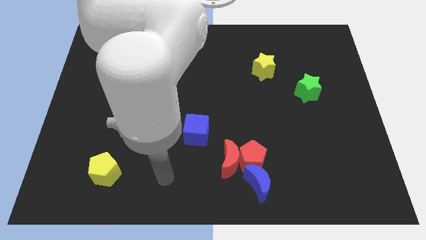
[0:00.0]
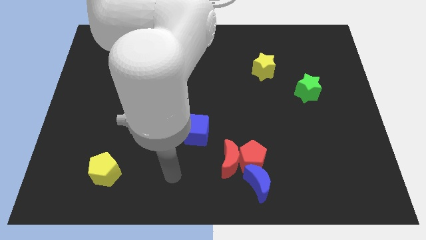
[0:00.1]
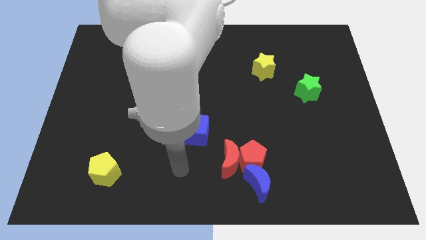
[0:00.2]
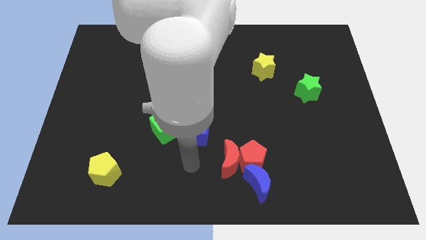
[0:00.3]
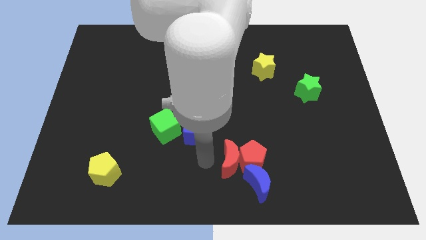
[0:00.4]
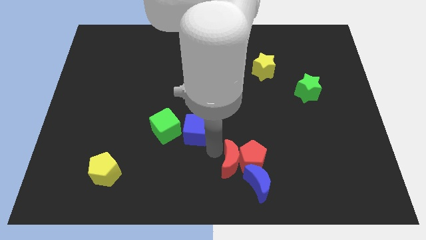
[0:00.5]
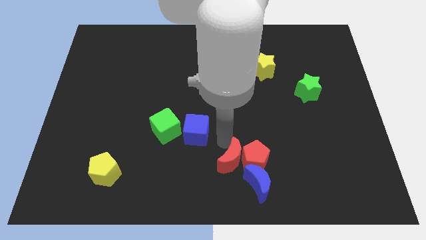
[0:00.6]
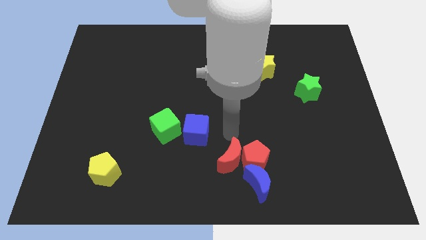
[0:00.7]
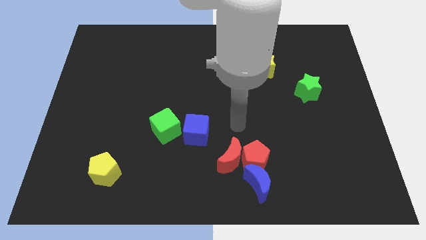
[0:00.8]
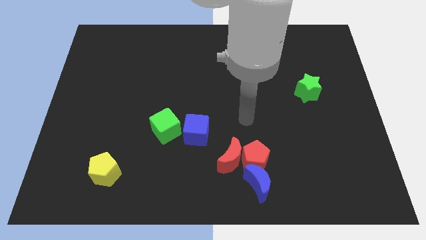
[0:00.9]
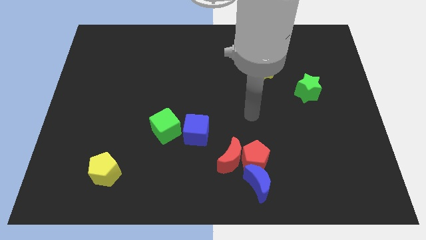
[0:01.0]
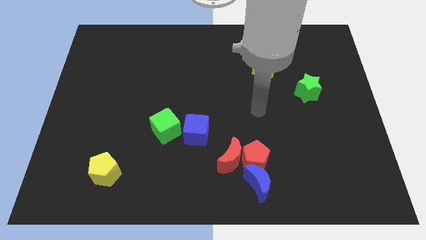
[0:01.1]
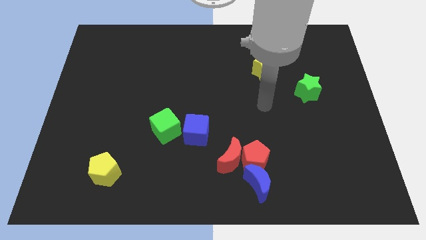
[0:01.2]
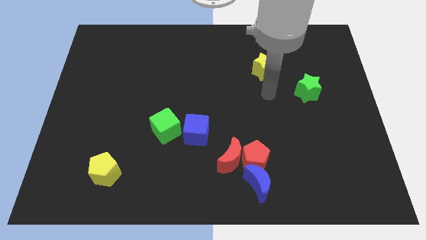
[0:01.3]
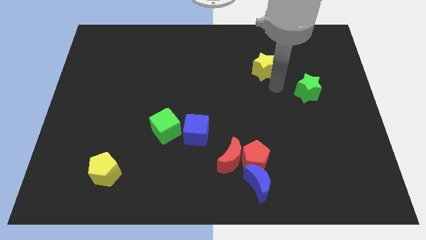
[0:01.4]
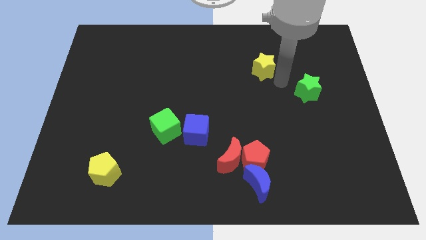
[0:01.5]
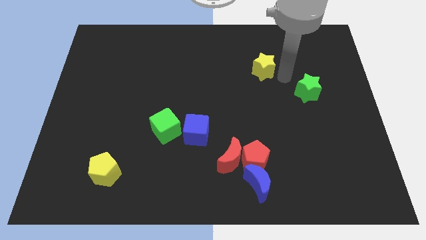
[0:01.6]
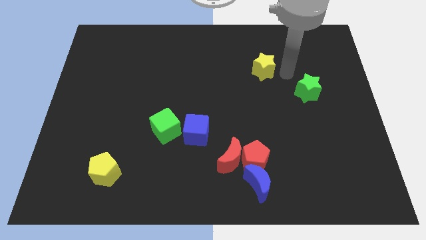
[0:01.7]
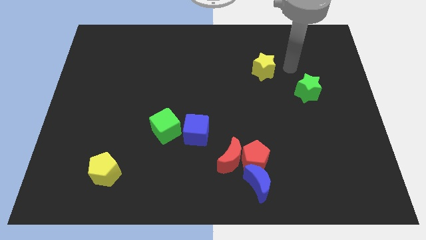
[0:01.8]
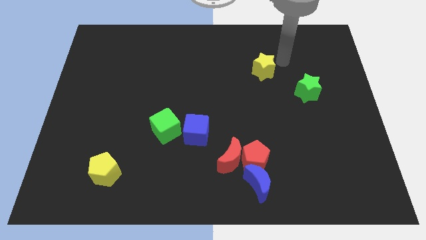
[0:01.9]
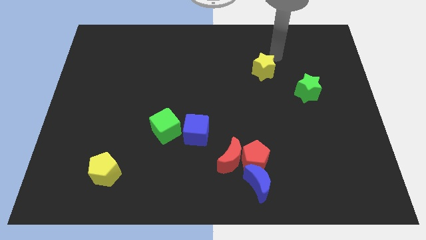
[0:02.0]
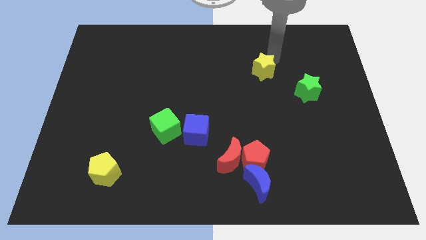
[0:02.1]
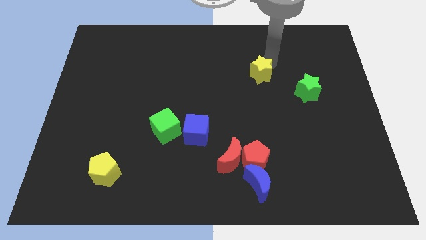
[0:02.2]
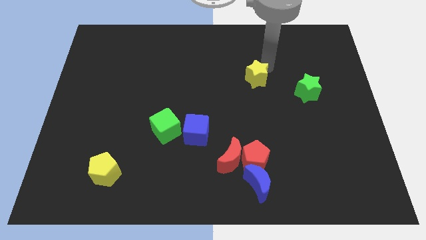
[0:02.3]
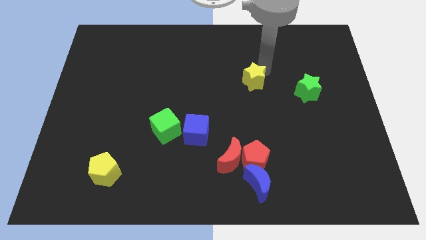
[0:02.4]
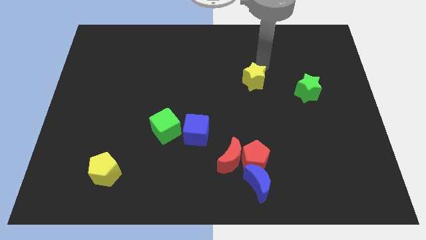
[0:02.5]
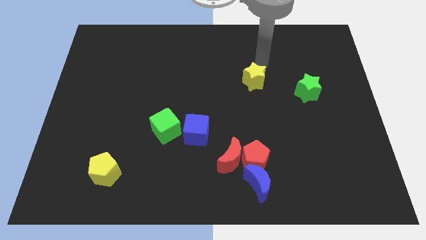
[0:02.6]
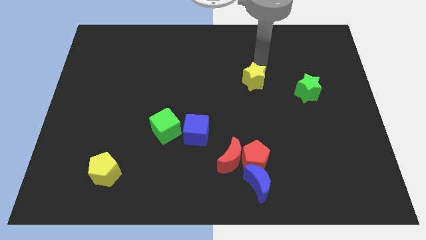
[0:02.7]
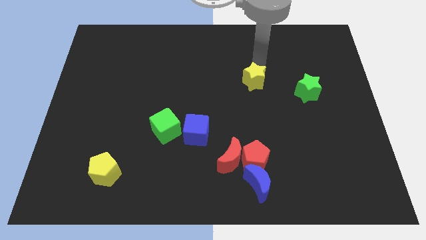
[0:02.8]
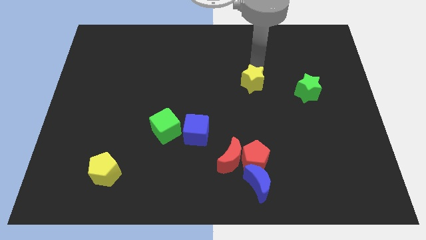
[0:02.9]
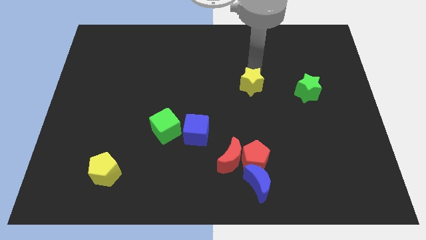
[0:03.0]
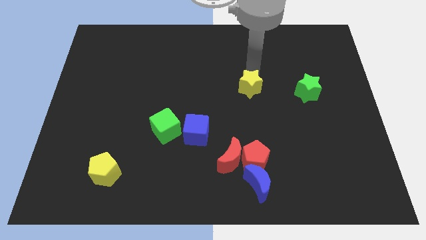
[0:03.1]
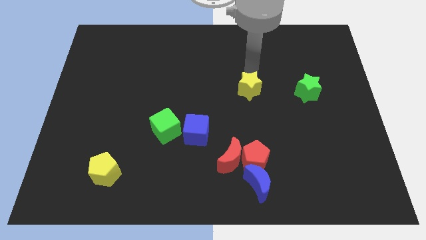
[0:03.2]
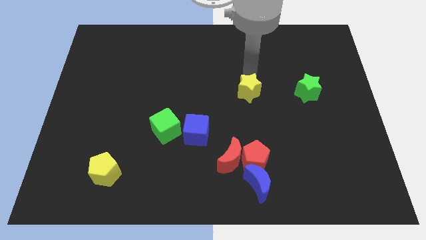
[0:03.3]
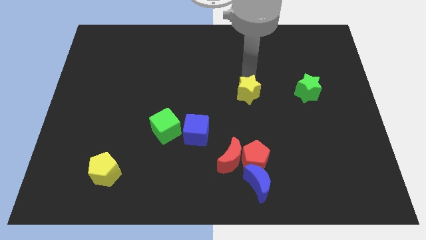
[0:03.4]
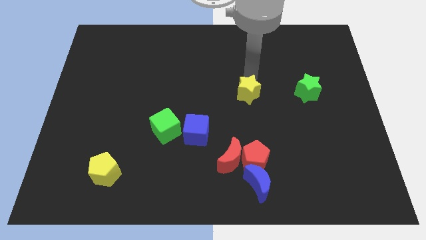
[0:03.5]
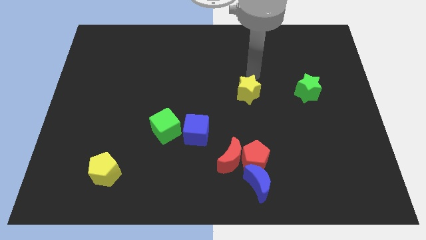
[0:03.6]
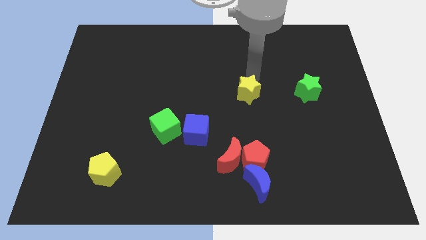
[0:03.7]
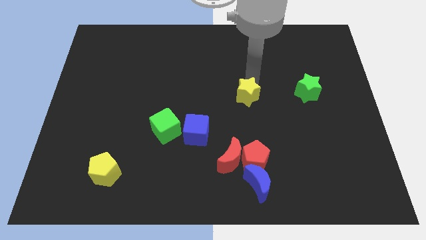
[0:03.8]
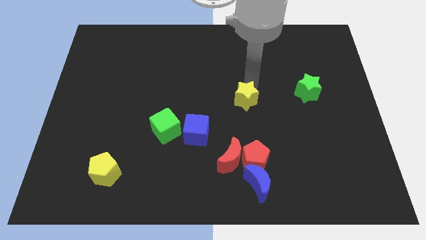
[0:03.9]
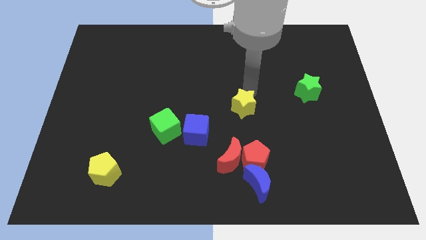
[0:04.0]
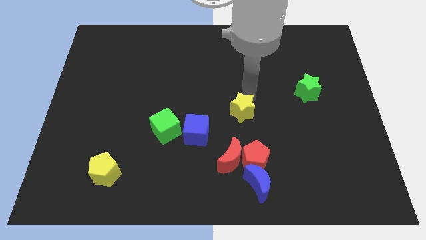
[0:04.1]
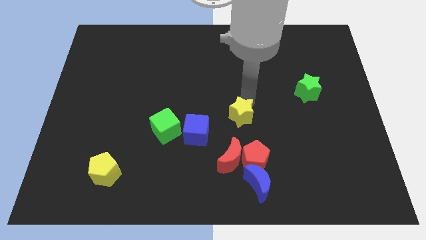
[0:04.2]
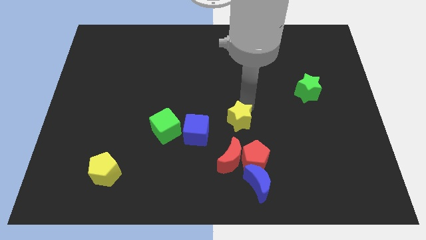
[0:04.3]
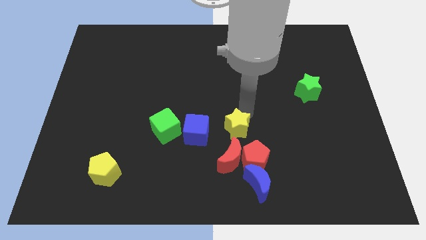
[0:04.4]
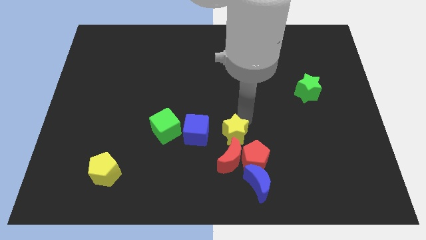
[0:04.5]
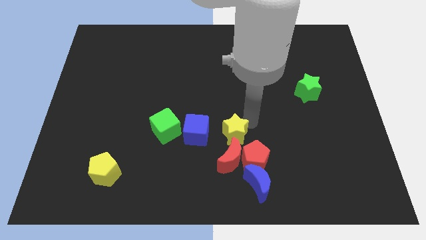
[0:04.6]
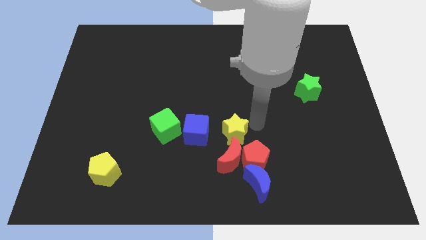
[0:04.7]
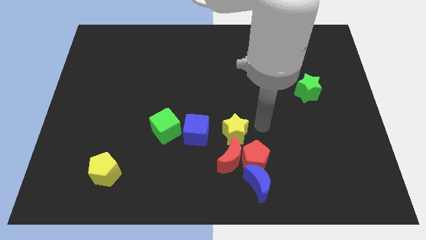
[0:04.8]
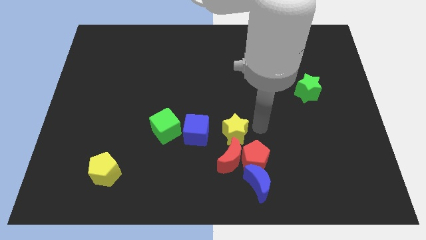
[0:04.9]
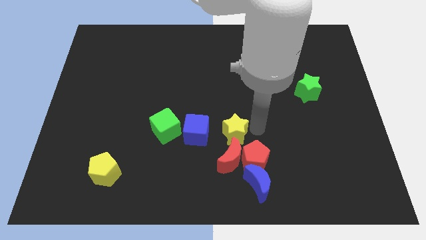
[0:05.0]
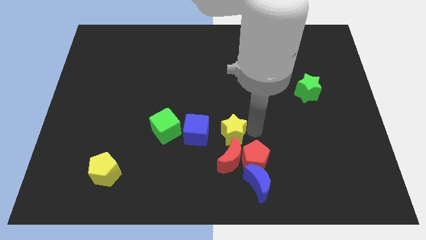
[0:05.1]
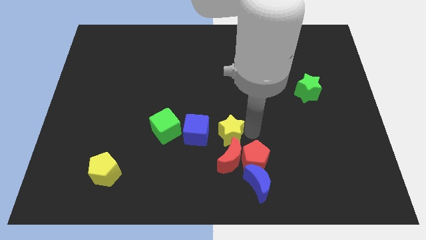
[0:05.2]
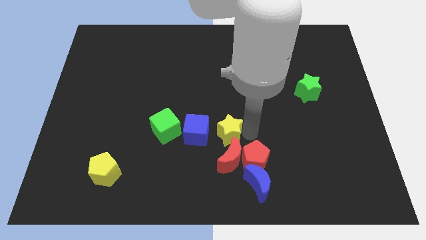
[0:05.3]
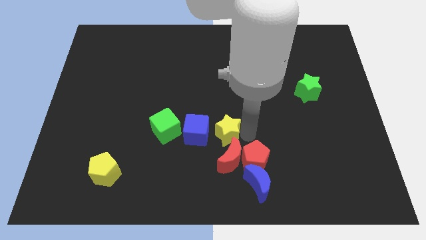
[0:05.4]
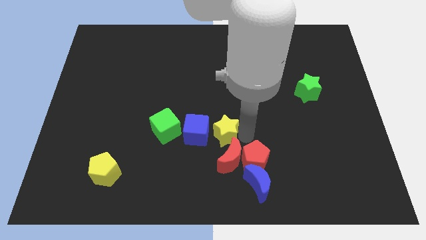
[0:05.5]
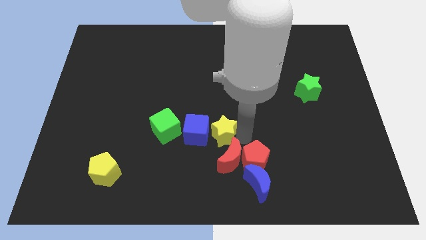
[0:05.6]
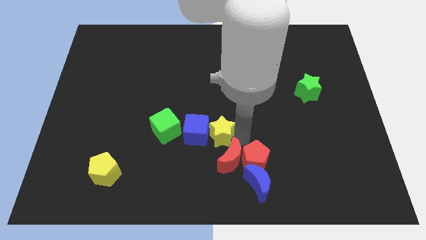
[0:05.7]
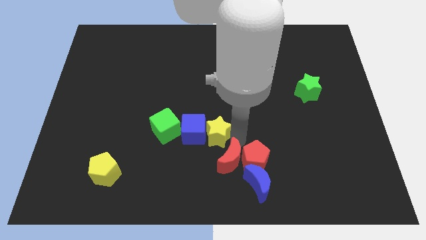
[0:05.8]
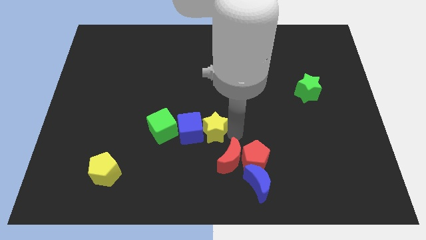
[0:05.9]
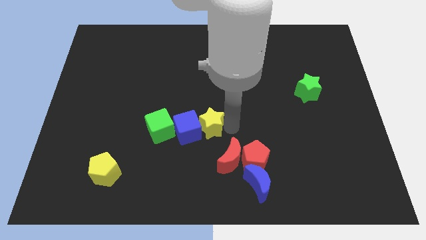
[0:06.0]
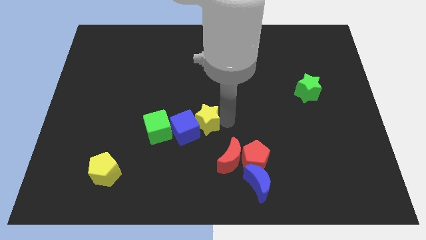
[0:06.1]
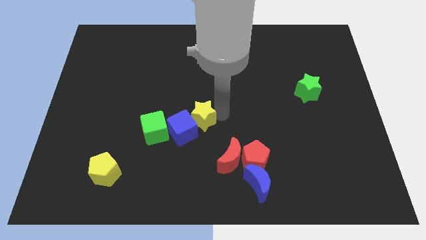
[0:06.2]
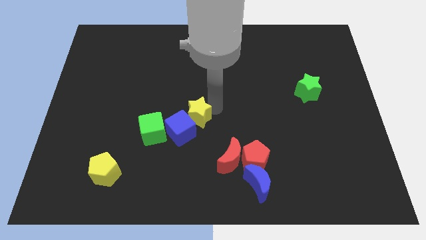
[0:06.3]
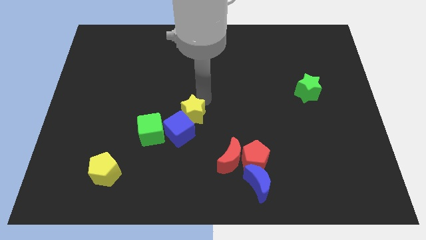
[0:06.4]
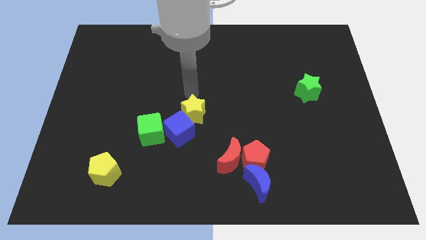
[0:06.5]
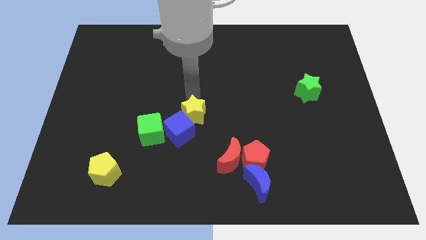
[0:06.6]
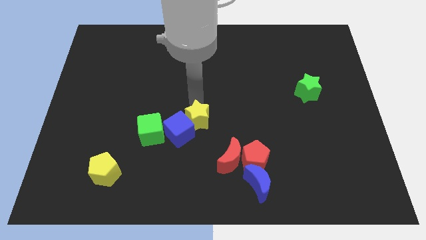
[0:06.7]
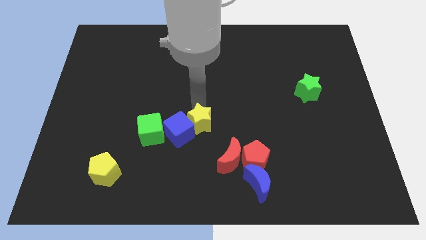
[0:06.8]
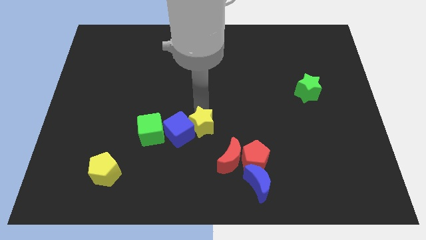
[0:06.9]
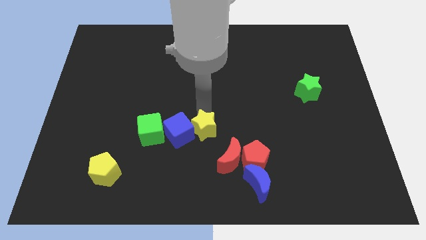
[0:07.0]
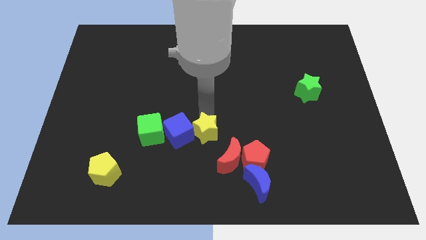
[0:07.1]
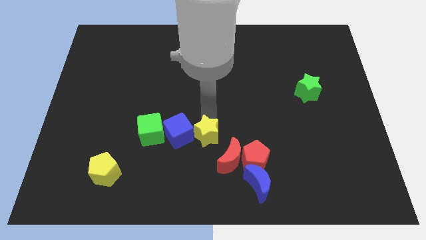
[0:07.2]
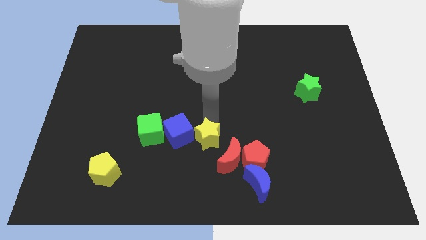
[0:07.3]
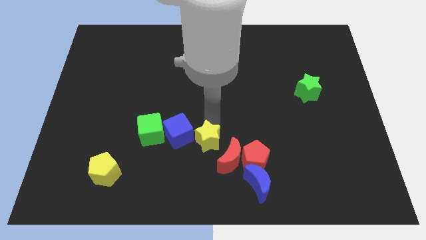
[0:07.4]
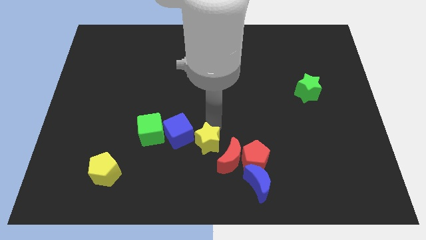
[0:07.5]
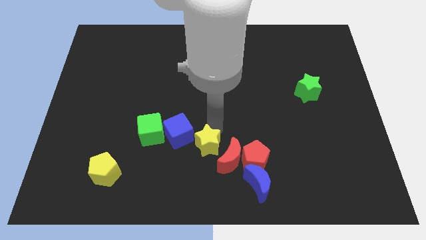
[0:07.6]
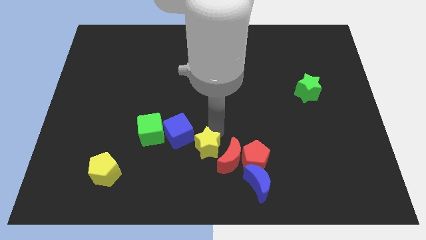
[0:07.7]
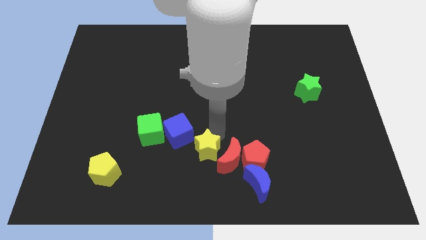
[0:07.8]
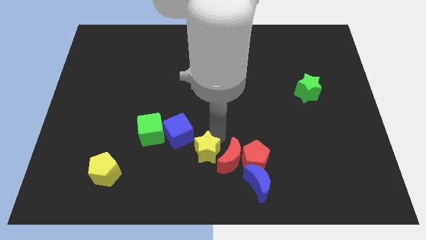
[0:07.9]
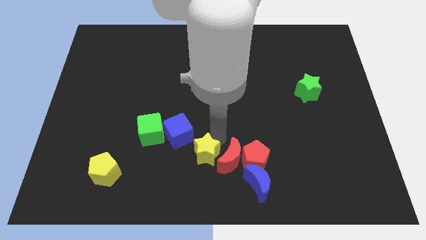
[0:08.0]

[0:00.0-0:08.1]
move the yellow star diagonally down and to the left of the red moon
